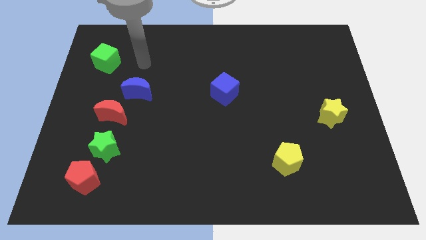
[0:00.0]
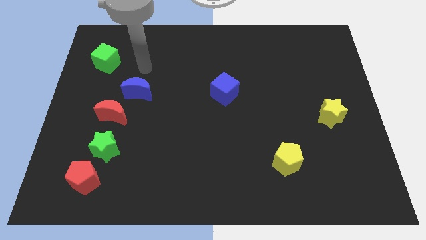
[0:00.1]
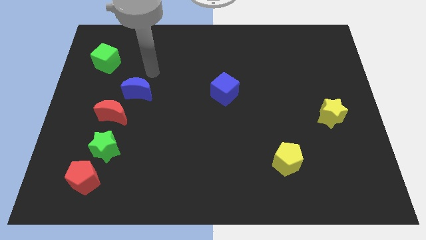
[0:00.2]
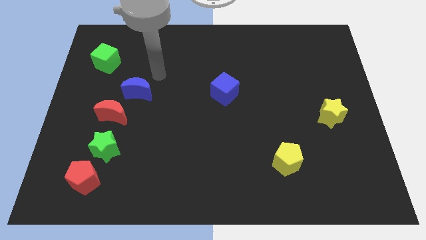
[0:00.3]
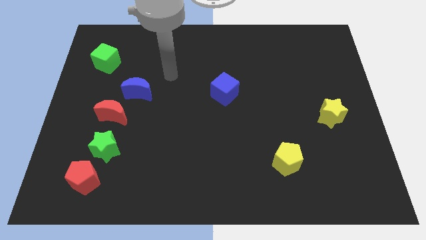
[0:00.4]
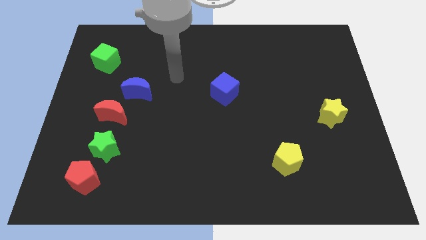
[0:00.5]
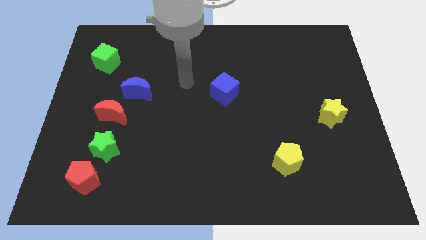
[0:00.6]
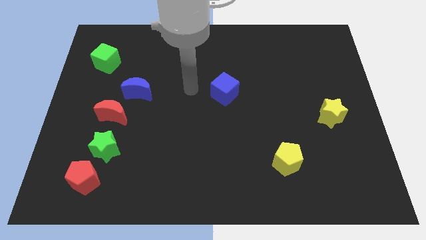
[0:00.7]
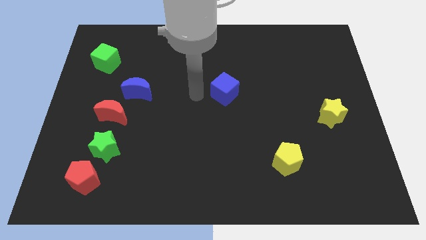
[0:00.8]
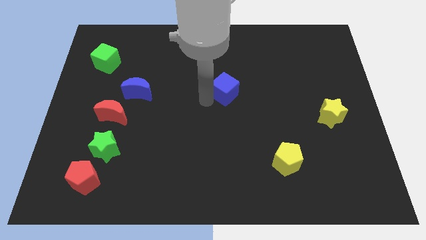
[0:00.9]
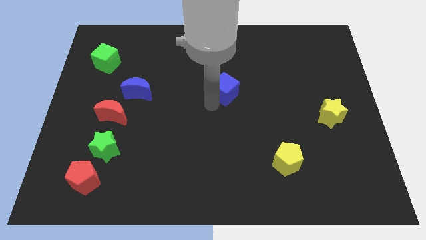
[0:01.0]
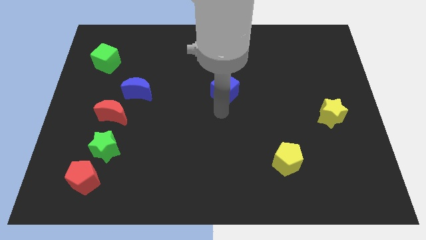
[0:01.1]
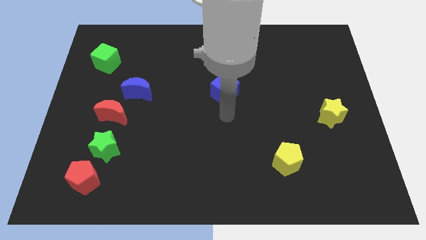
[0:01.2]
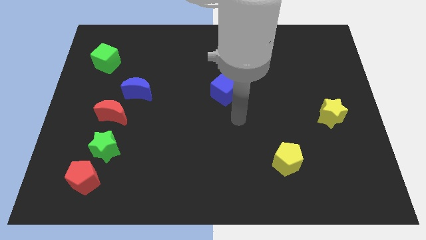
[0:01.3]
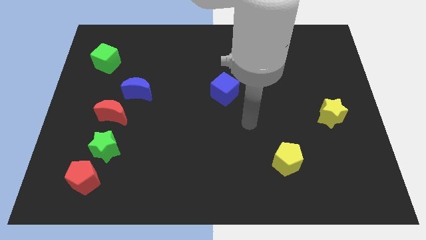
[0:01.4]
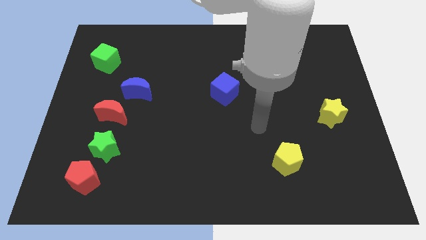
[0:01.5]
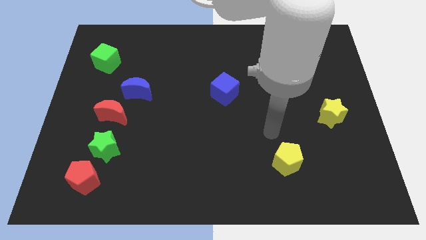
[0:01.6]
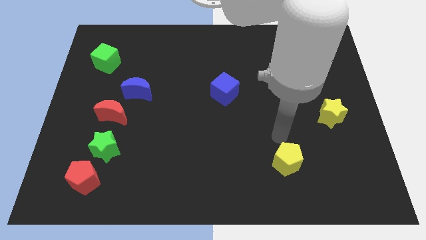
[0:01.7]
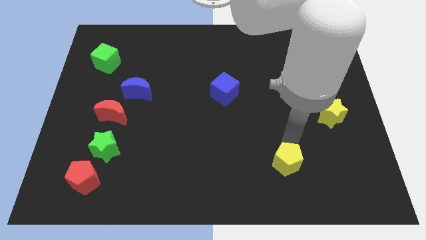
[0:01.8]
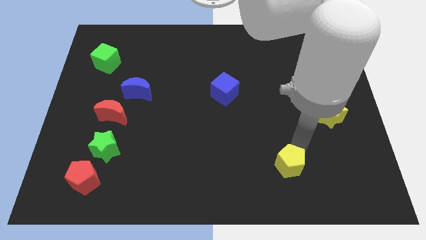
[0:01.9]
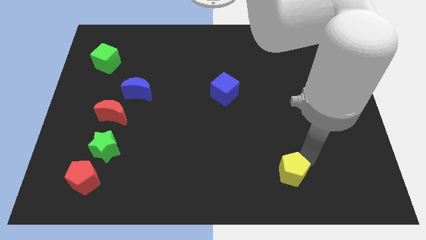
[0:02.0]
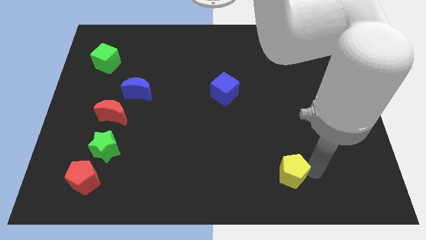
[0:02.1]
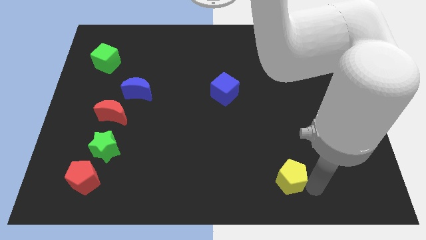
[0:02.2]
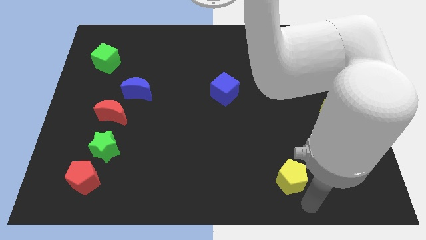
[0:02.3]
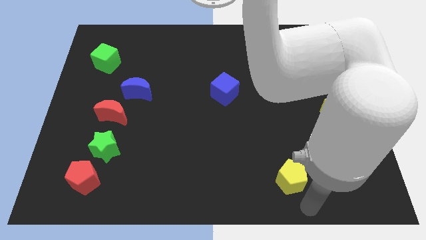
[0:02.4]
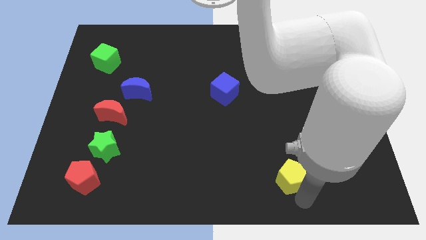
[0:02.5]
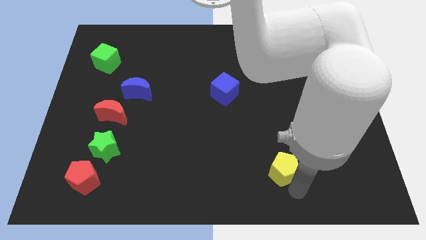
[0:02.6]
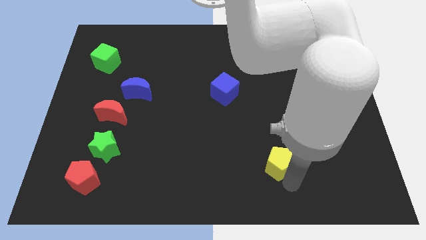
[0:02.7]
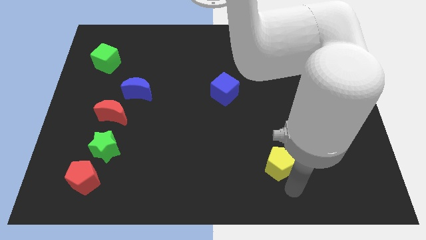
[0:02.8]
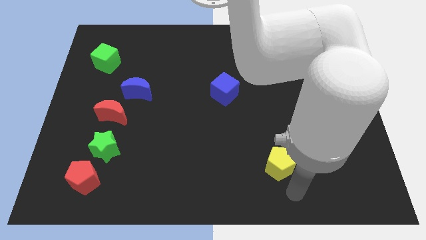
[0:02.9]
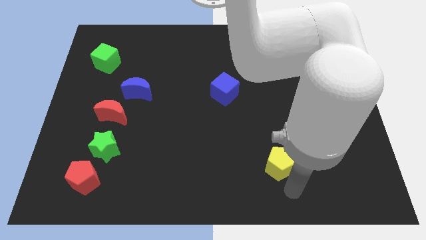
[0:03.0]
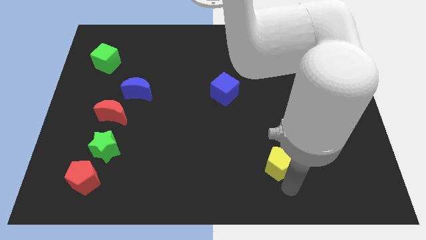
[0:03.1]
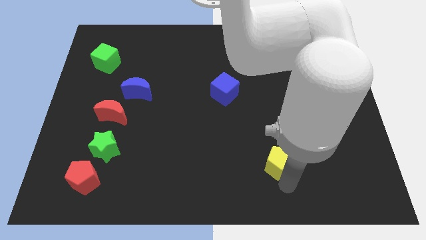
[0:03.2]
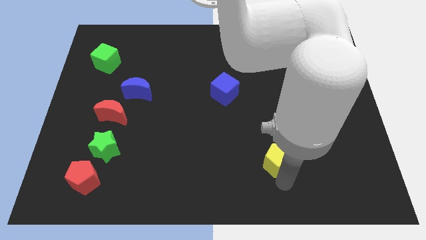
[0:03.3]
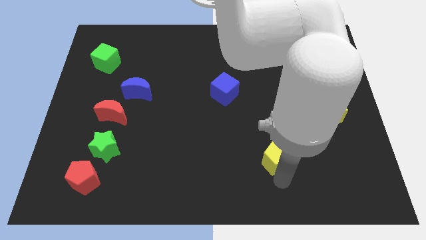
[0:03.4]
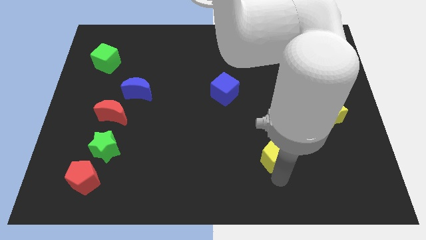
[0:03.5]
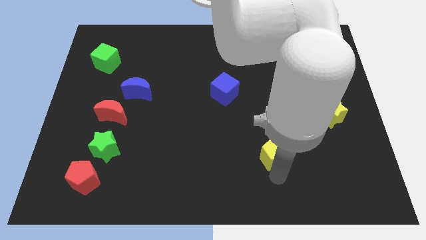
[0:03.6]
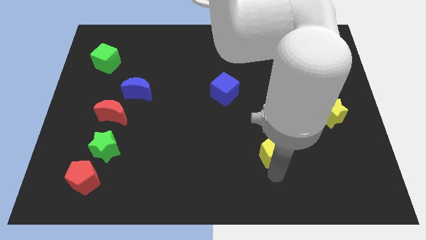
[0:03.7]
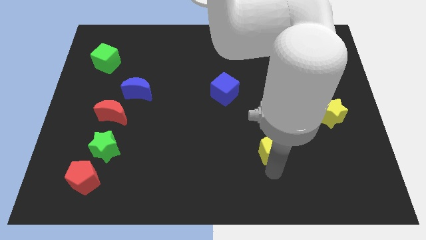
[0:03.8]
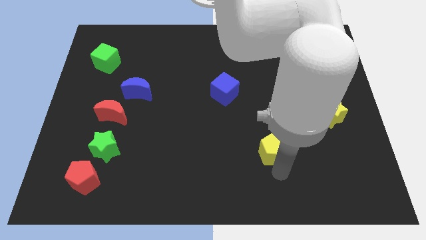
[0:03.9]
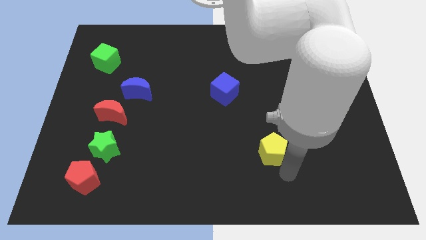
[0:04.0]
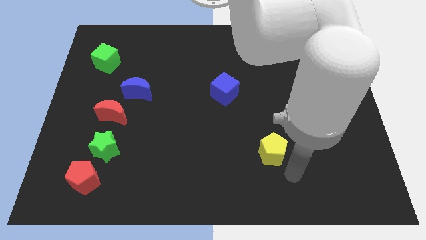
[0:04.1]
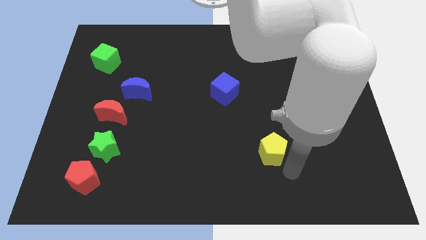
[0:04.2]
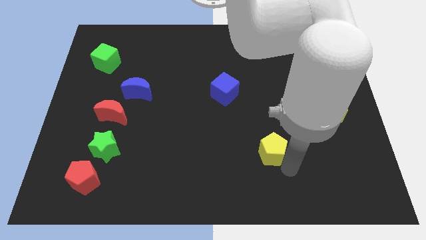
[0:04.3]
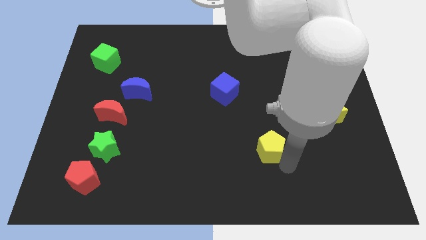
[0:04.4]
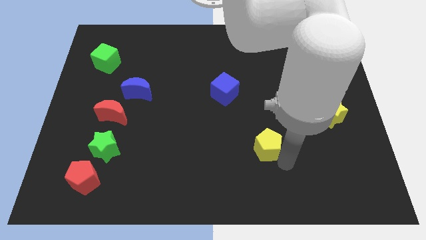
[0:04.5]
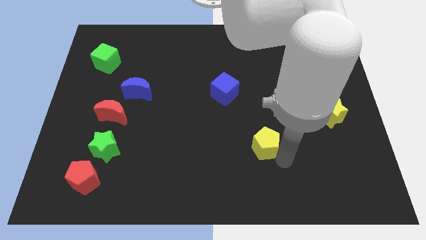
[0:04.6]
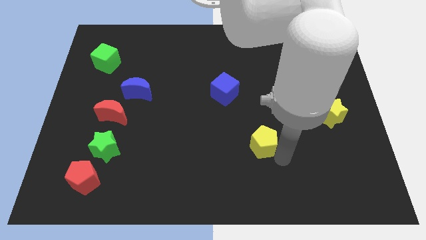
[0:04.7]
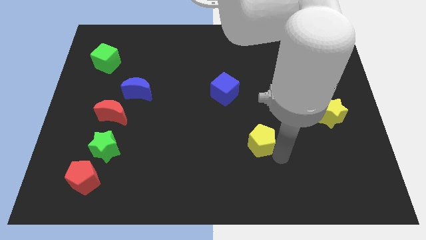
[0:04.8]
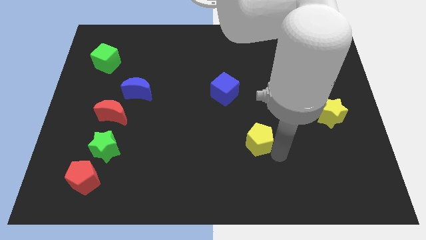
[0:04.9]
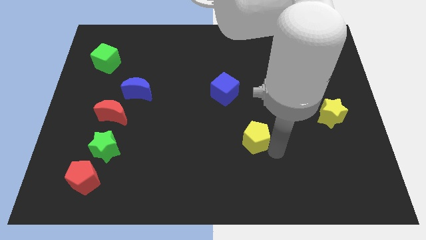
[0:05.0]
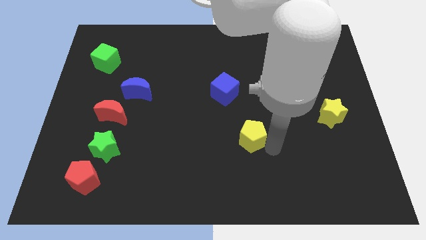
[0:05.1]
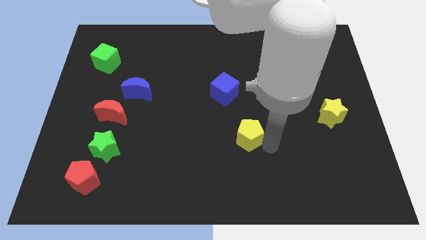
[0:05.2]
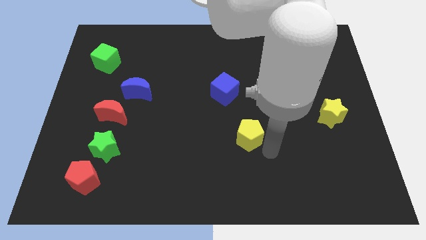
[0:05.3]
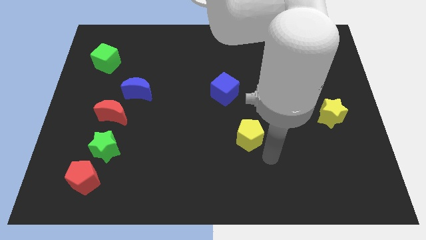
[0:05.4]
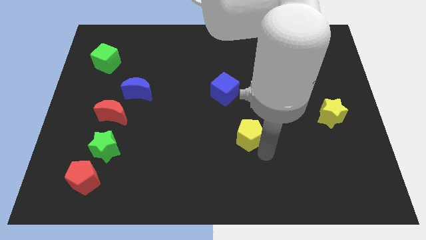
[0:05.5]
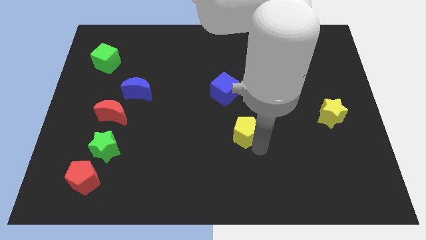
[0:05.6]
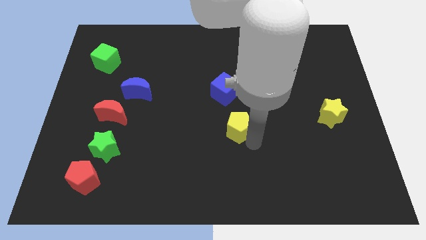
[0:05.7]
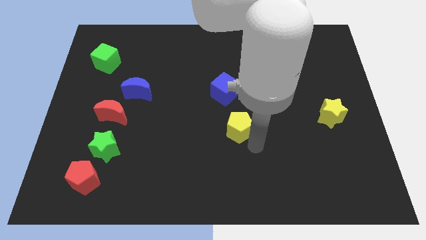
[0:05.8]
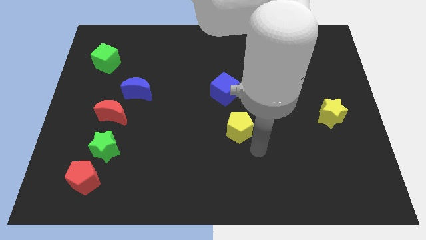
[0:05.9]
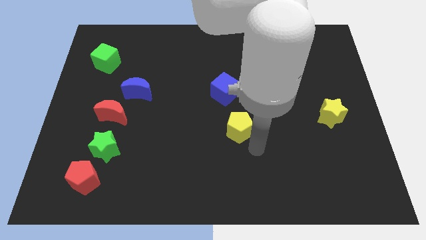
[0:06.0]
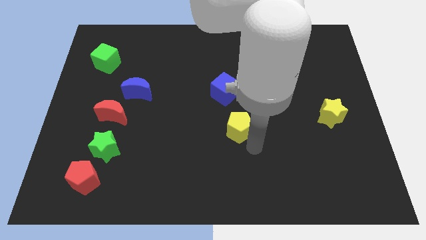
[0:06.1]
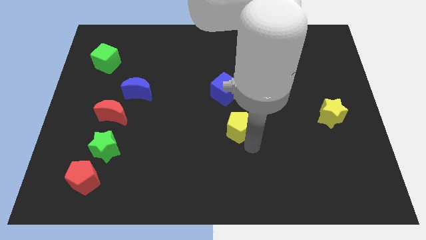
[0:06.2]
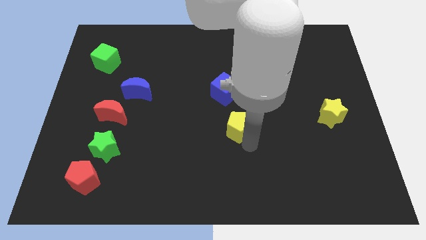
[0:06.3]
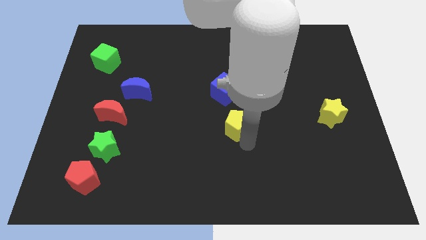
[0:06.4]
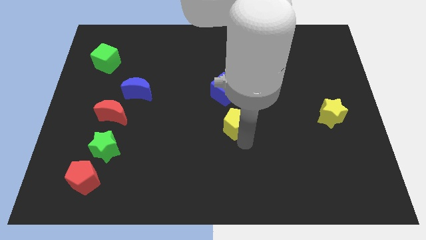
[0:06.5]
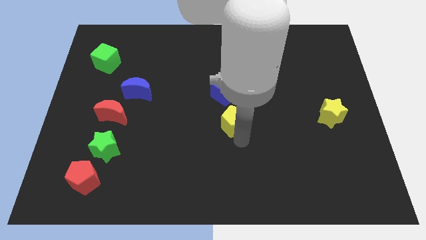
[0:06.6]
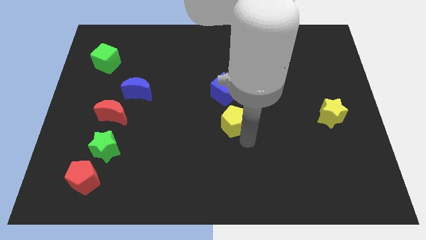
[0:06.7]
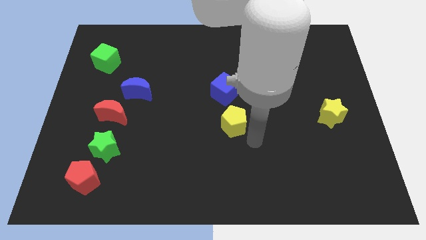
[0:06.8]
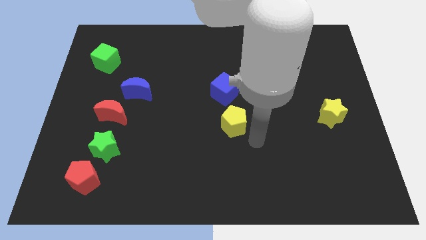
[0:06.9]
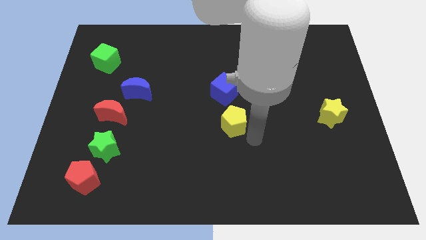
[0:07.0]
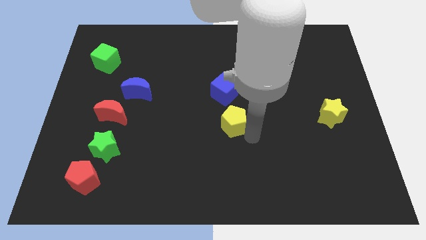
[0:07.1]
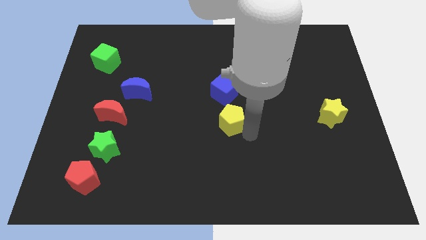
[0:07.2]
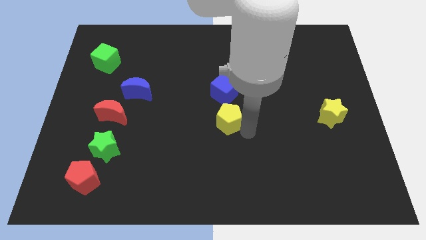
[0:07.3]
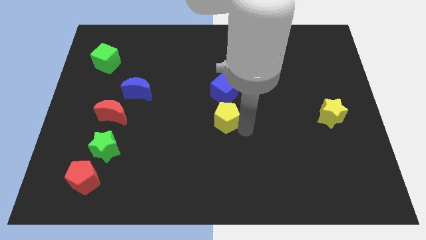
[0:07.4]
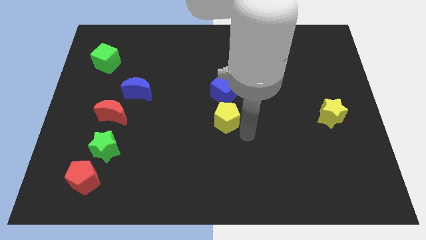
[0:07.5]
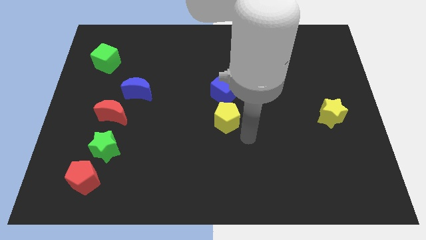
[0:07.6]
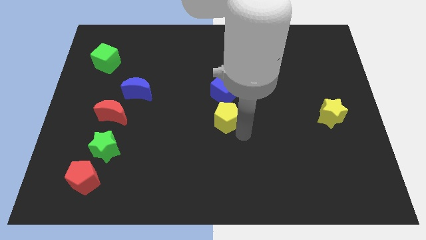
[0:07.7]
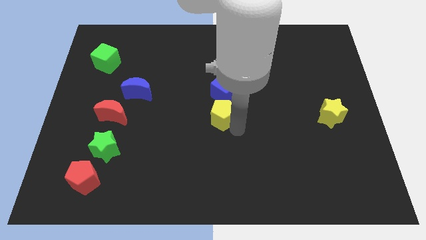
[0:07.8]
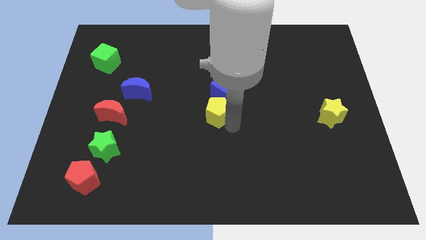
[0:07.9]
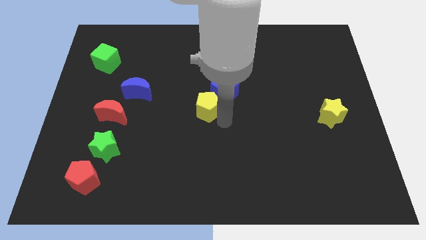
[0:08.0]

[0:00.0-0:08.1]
slide the yellow pentagon up and then to the left
